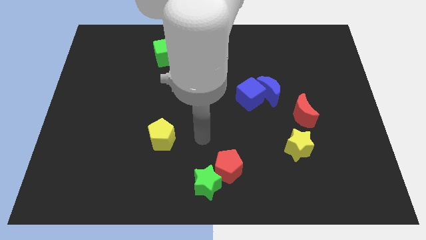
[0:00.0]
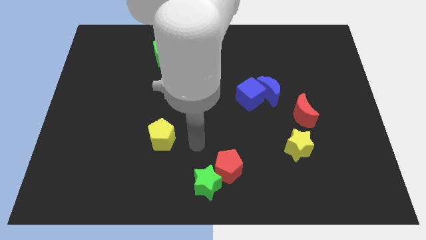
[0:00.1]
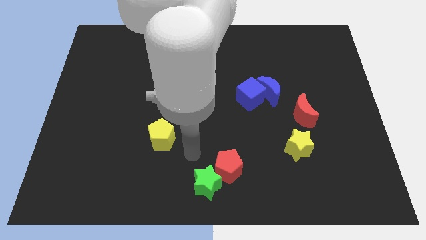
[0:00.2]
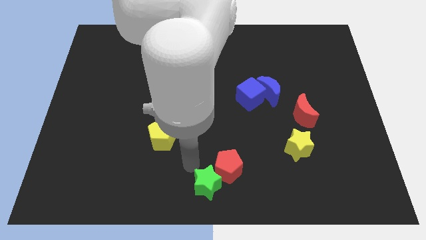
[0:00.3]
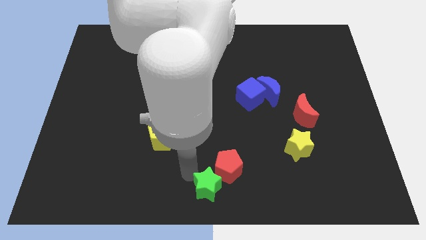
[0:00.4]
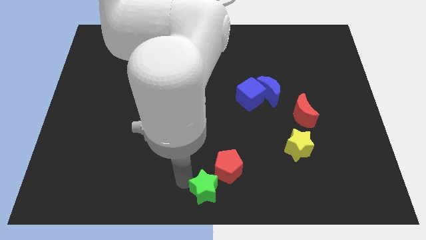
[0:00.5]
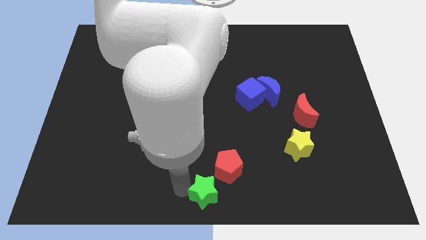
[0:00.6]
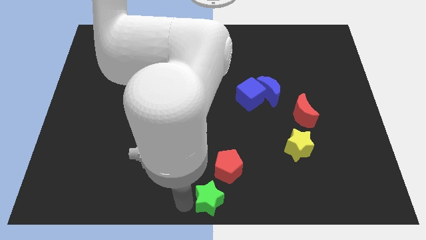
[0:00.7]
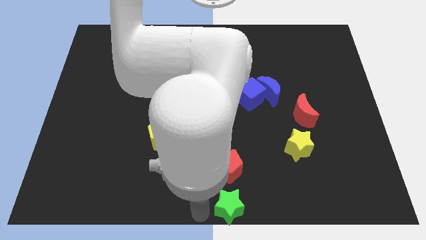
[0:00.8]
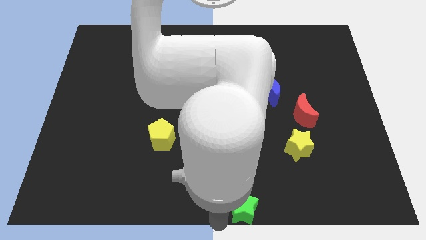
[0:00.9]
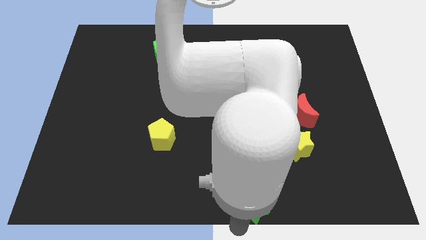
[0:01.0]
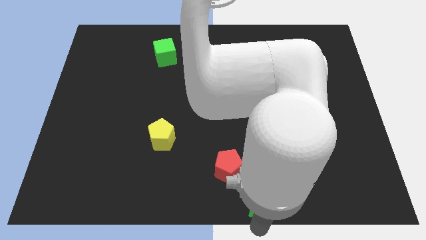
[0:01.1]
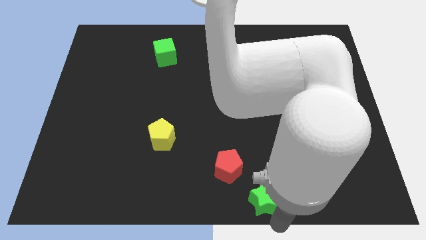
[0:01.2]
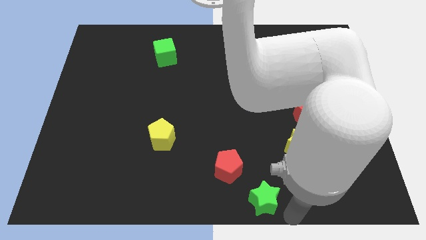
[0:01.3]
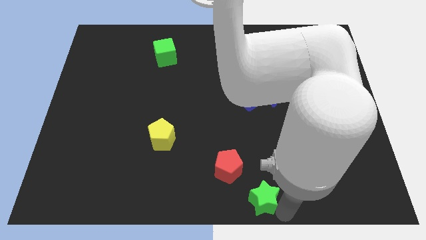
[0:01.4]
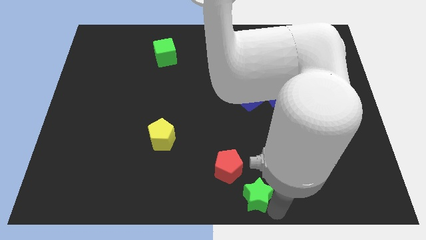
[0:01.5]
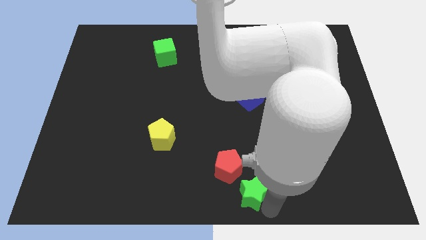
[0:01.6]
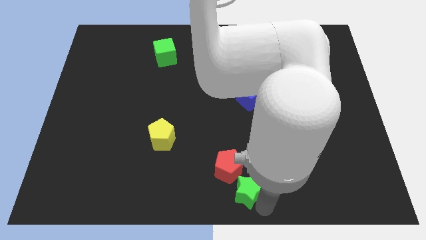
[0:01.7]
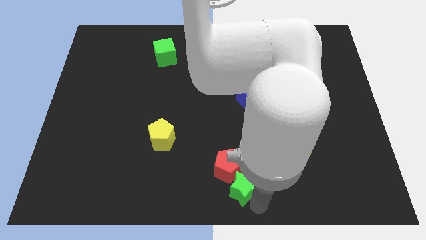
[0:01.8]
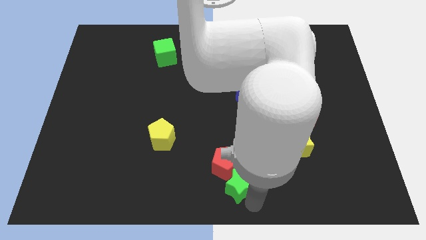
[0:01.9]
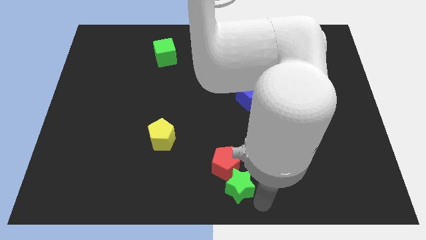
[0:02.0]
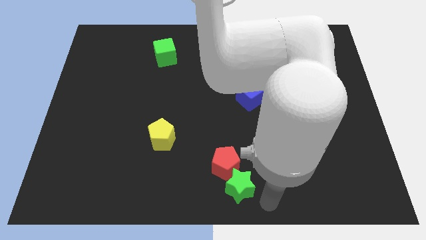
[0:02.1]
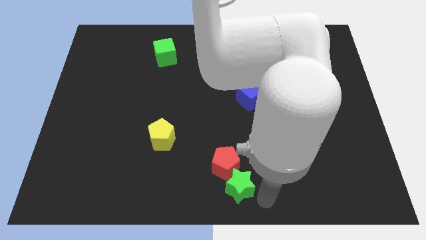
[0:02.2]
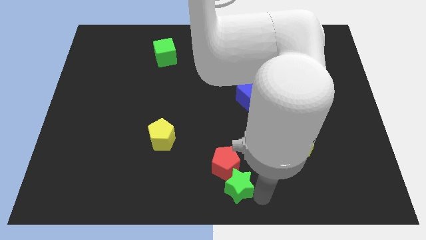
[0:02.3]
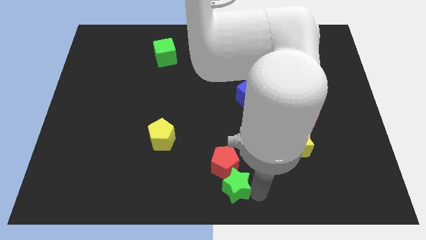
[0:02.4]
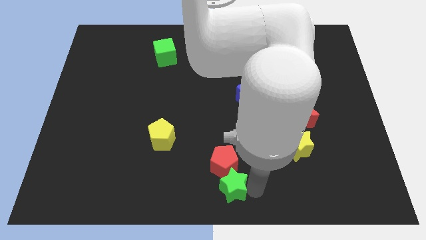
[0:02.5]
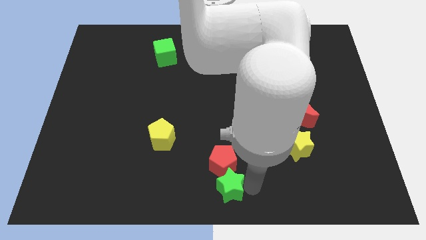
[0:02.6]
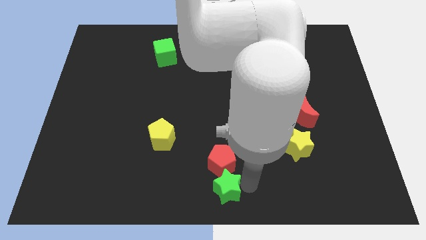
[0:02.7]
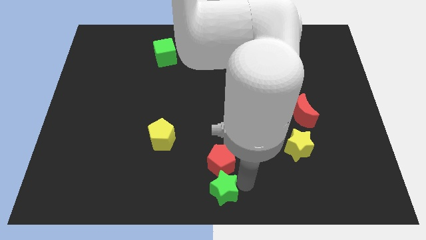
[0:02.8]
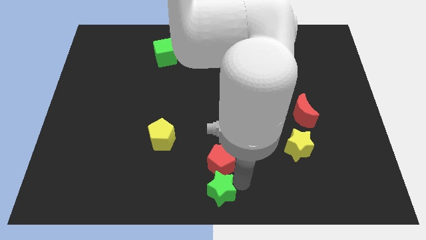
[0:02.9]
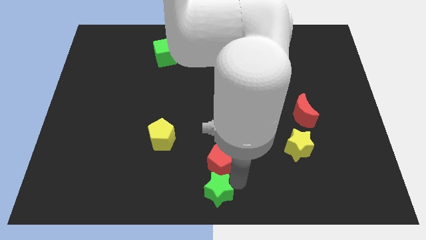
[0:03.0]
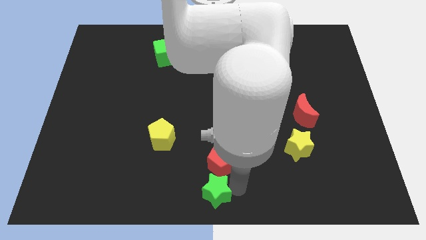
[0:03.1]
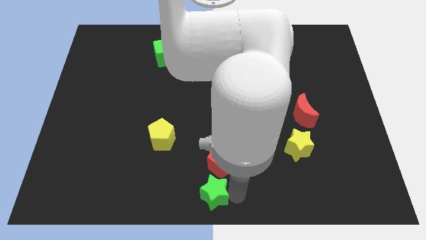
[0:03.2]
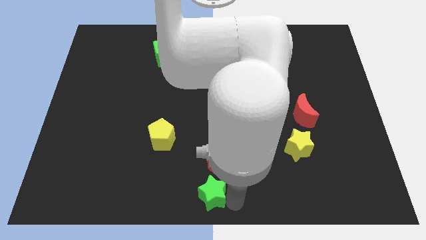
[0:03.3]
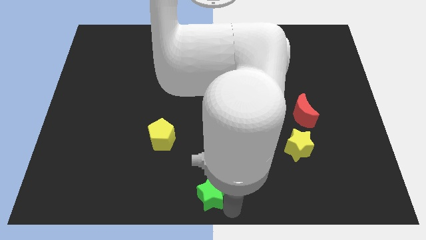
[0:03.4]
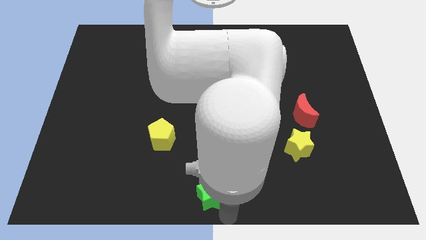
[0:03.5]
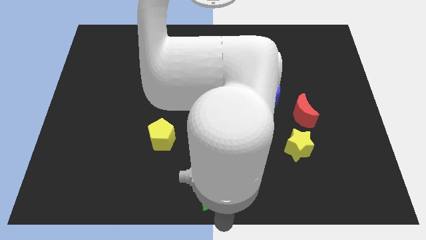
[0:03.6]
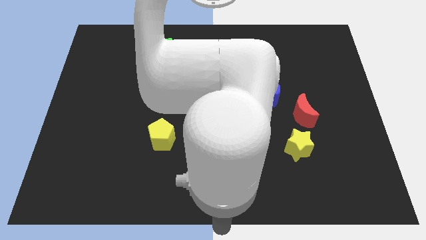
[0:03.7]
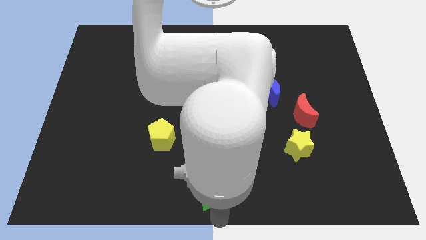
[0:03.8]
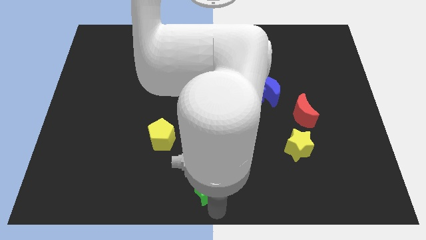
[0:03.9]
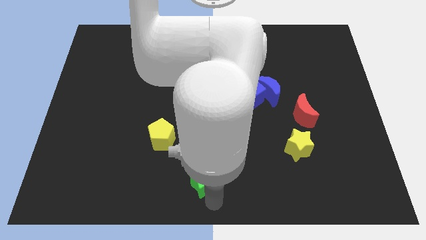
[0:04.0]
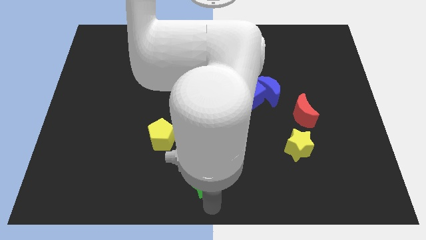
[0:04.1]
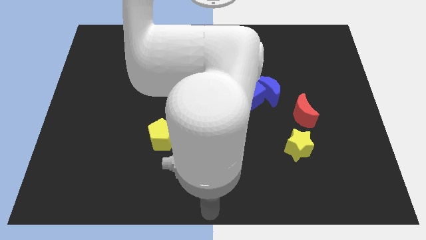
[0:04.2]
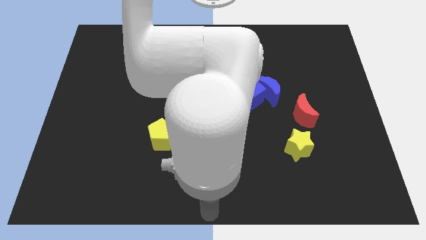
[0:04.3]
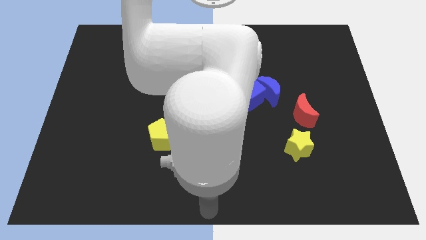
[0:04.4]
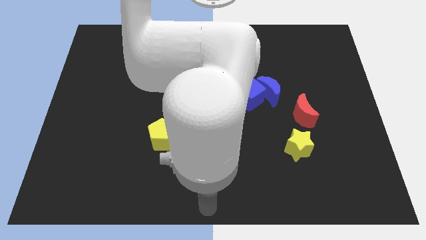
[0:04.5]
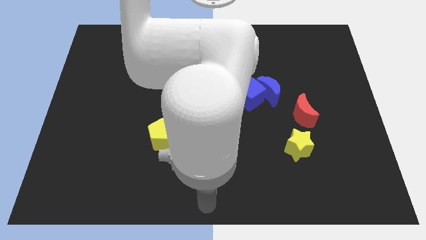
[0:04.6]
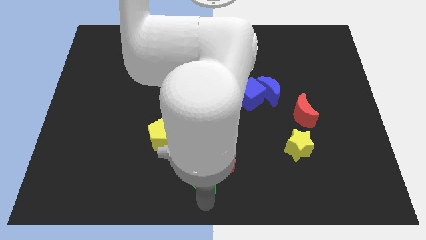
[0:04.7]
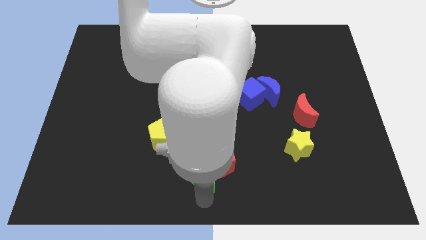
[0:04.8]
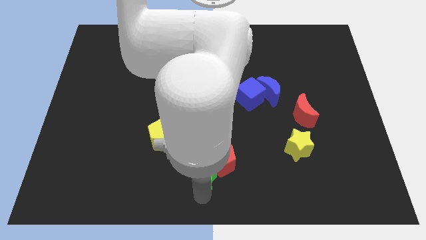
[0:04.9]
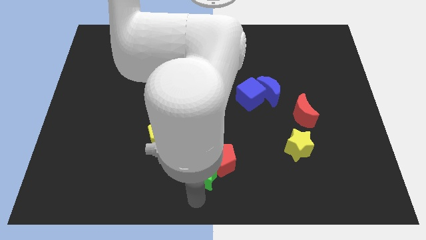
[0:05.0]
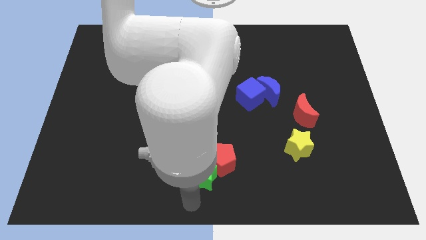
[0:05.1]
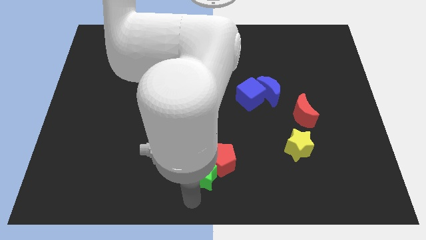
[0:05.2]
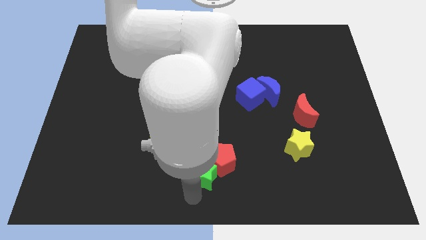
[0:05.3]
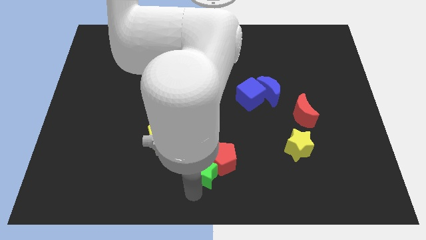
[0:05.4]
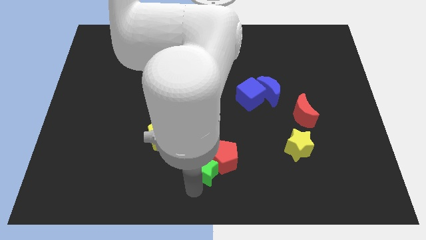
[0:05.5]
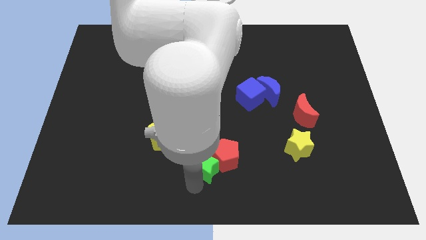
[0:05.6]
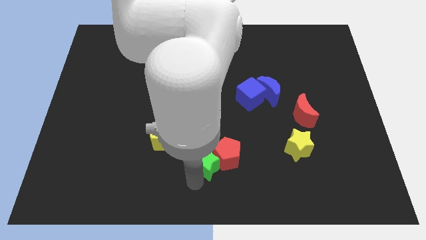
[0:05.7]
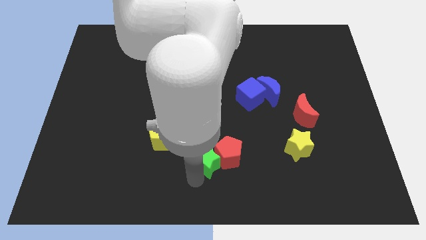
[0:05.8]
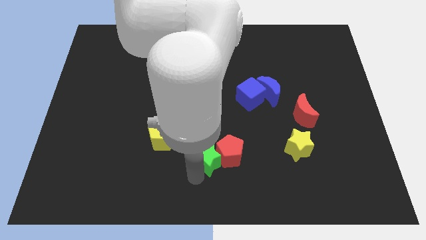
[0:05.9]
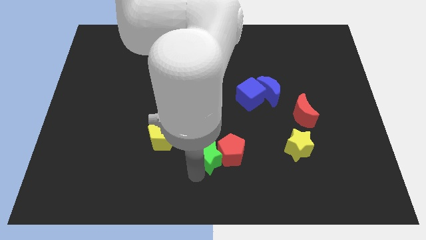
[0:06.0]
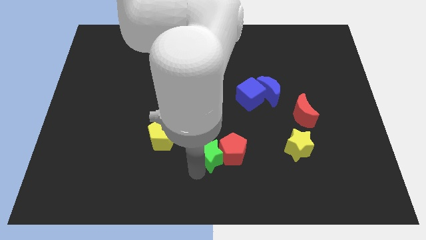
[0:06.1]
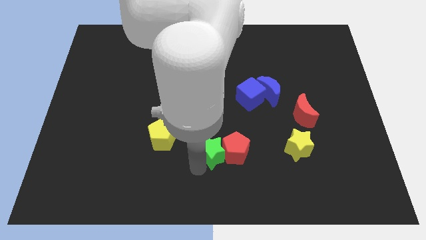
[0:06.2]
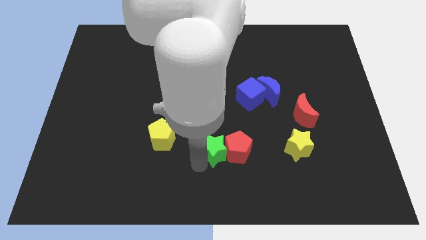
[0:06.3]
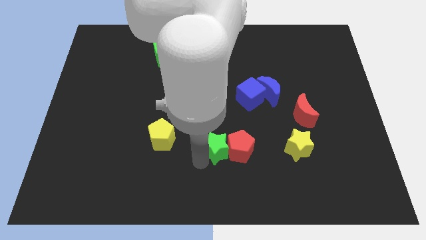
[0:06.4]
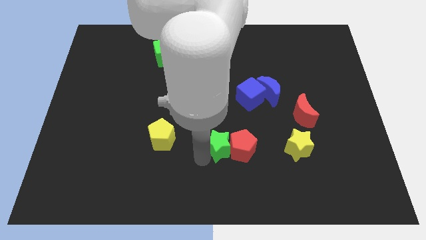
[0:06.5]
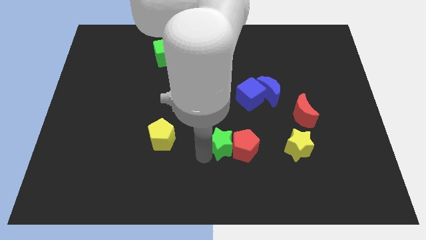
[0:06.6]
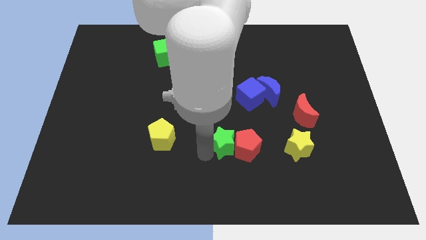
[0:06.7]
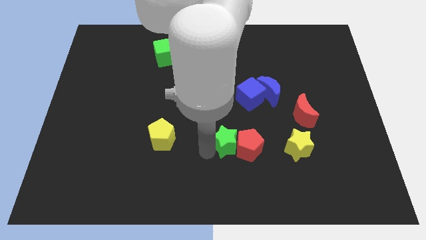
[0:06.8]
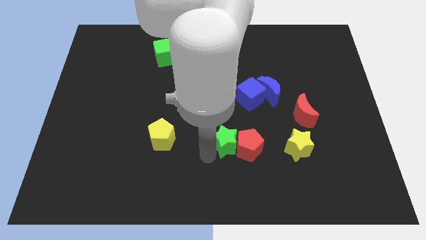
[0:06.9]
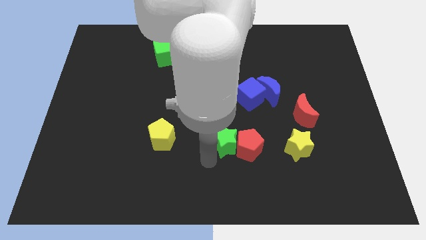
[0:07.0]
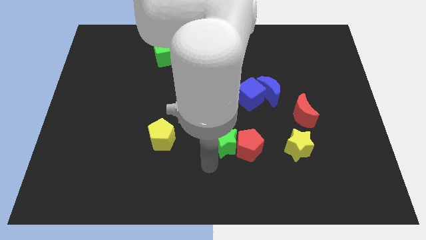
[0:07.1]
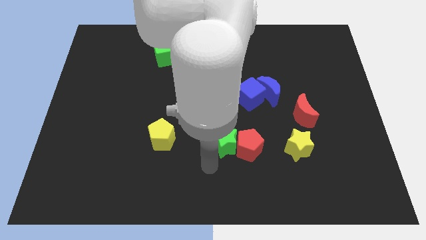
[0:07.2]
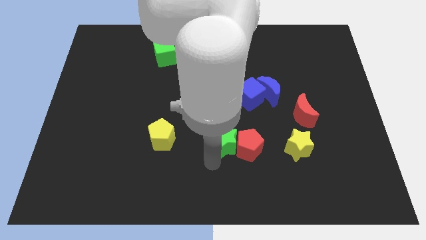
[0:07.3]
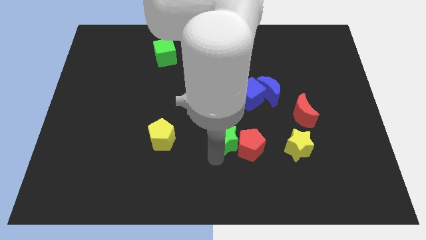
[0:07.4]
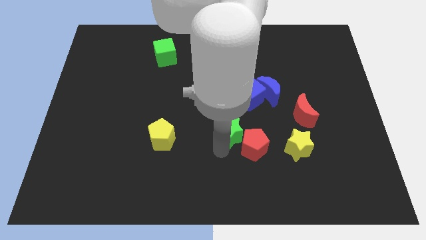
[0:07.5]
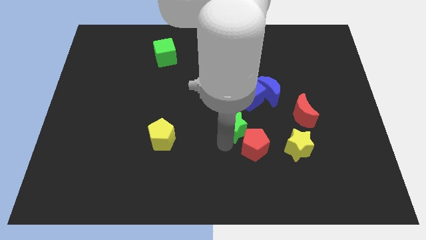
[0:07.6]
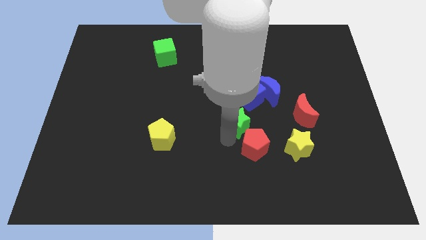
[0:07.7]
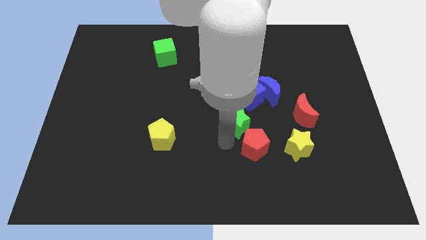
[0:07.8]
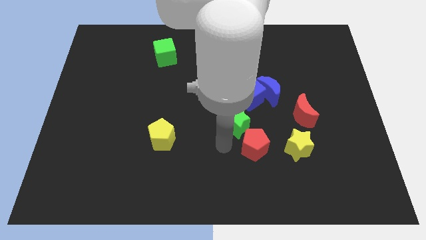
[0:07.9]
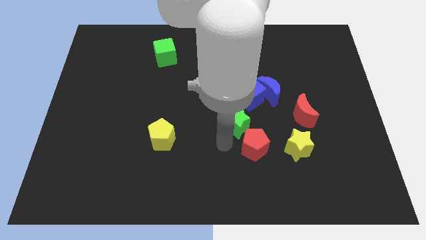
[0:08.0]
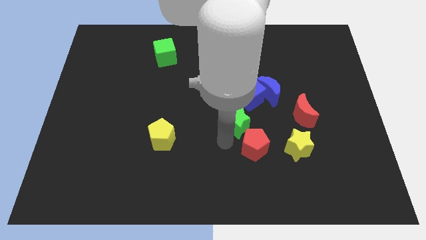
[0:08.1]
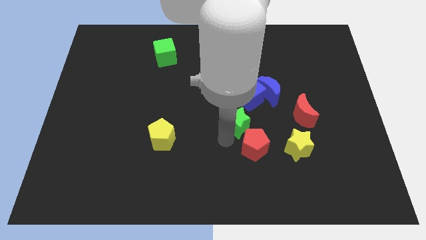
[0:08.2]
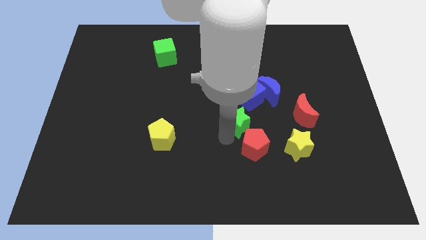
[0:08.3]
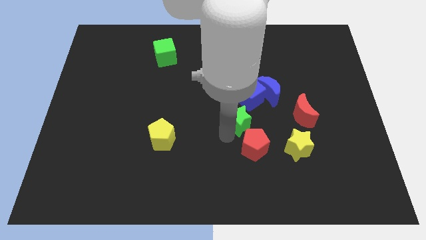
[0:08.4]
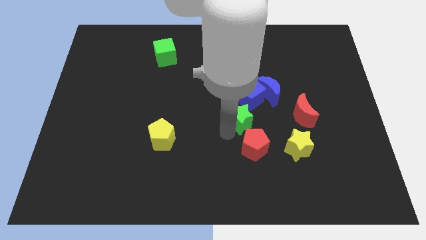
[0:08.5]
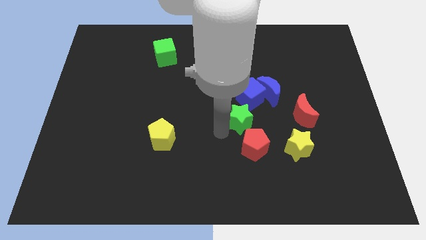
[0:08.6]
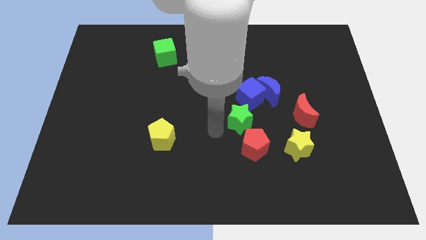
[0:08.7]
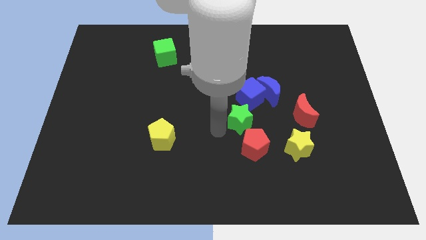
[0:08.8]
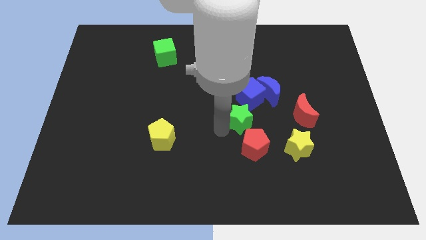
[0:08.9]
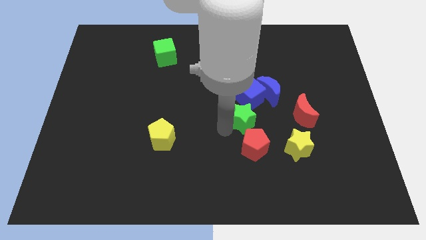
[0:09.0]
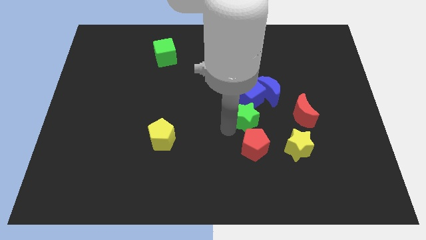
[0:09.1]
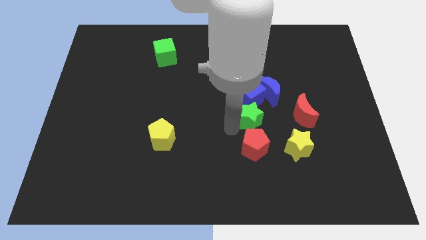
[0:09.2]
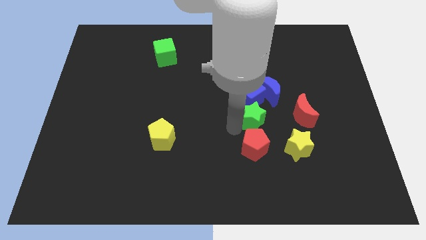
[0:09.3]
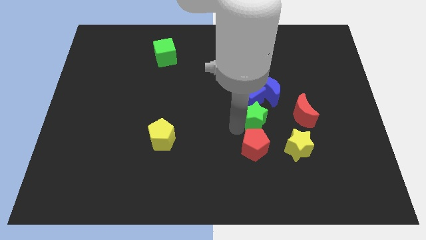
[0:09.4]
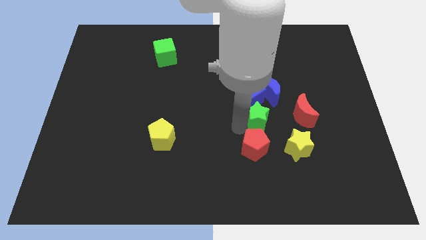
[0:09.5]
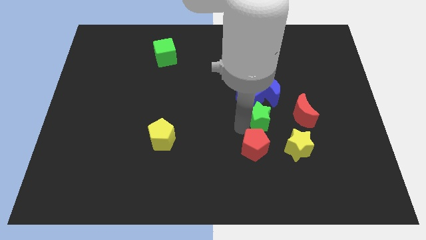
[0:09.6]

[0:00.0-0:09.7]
slide the green star diagonally up and to the right
